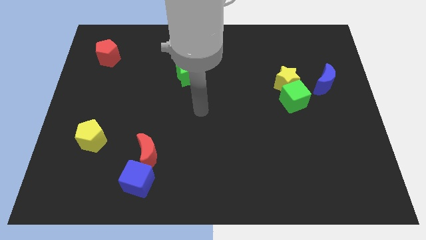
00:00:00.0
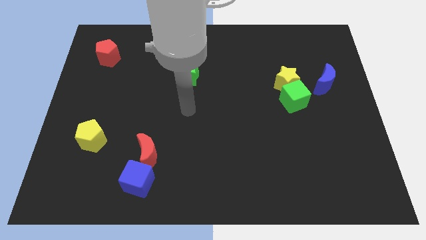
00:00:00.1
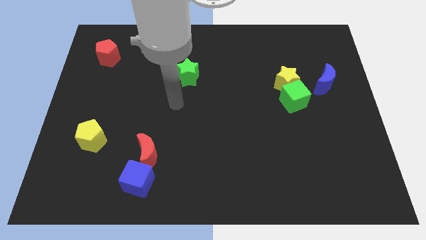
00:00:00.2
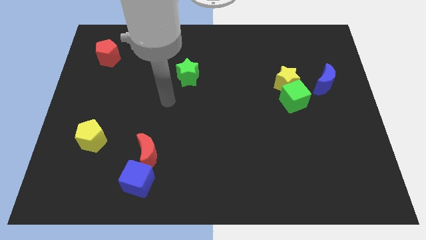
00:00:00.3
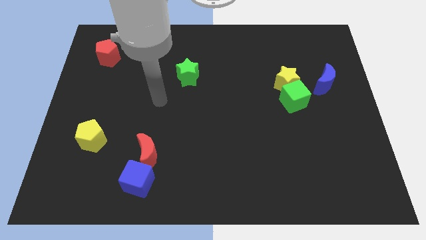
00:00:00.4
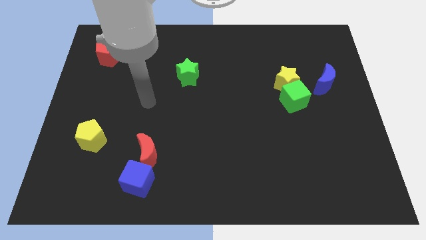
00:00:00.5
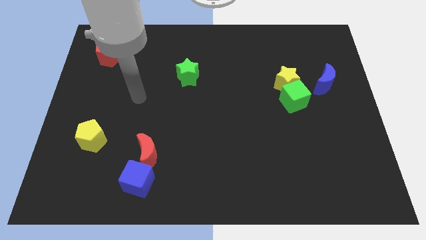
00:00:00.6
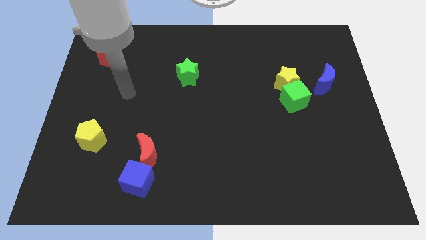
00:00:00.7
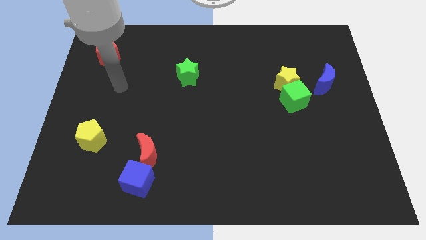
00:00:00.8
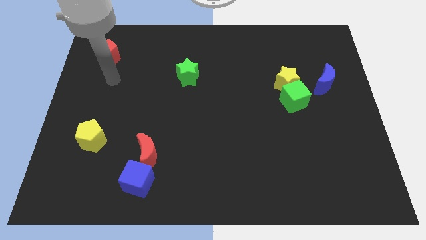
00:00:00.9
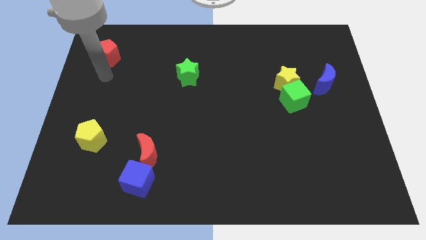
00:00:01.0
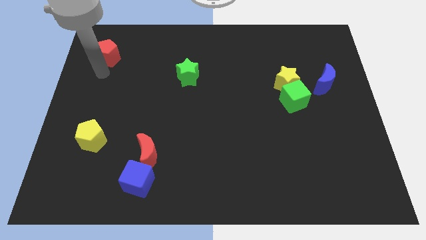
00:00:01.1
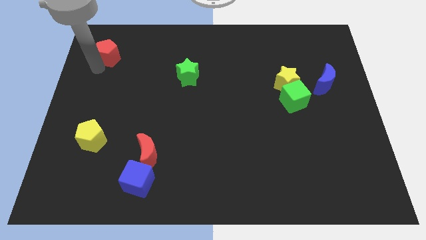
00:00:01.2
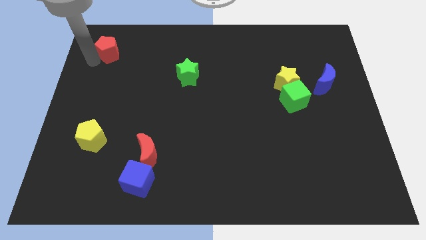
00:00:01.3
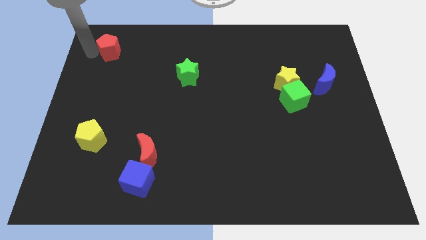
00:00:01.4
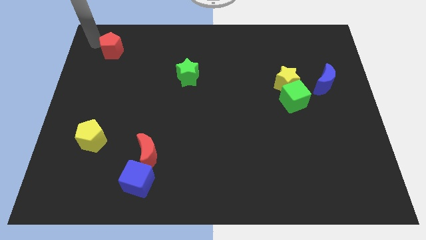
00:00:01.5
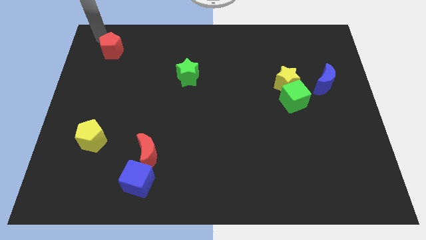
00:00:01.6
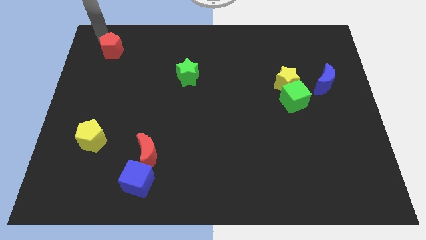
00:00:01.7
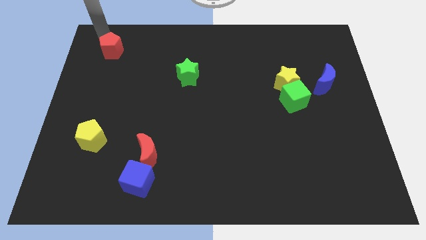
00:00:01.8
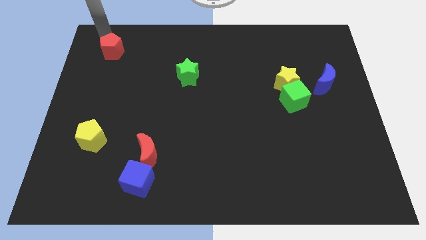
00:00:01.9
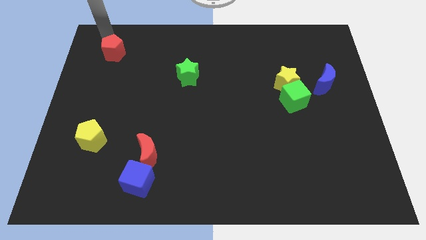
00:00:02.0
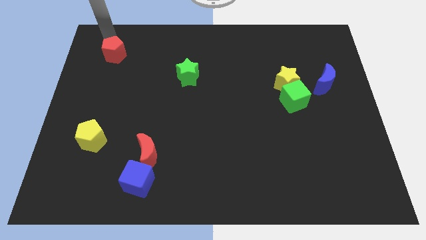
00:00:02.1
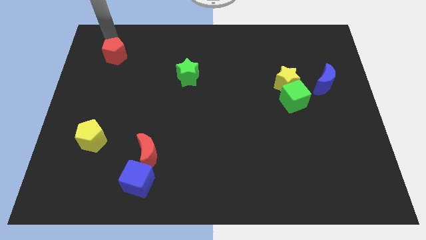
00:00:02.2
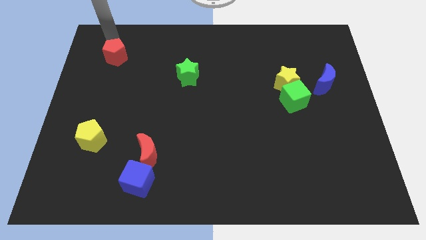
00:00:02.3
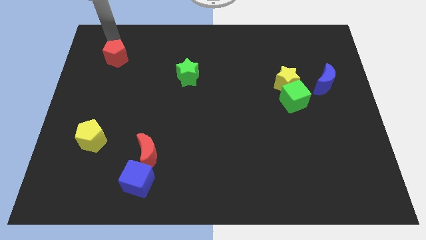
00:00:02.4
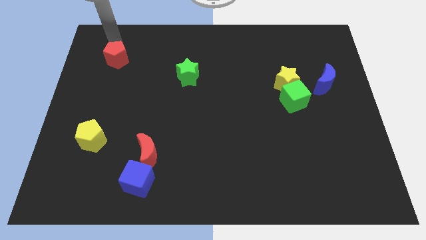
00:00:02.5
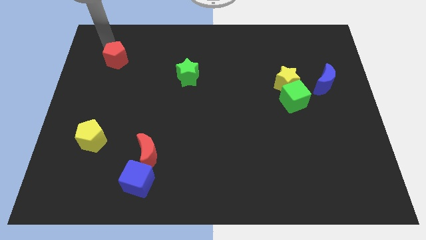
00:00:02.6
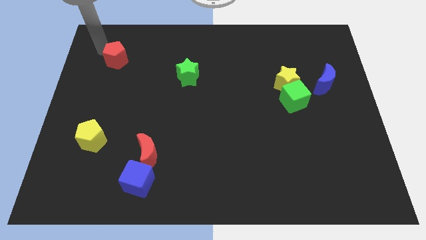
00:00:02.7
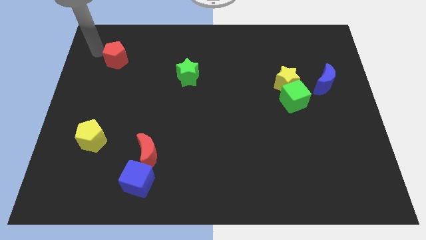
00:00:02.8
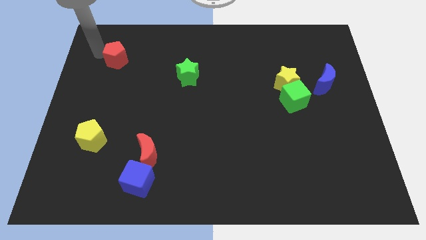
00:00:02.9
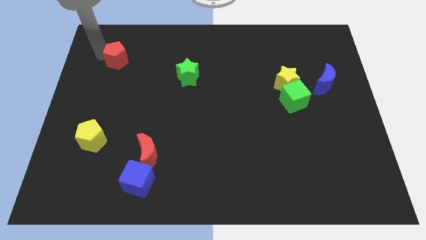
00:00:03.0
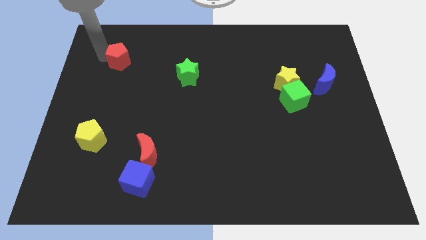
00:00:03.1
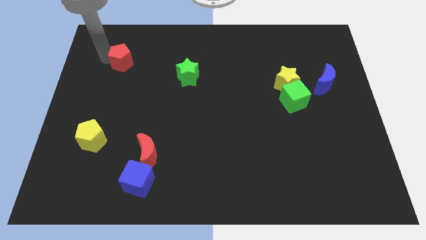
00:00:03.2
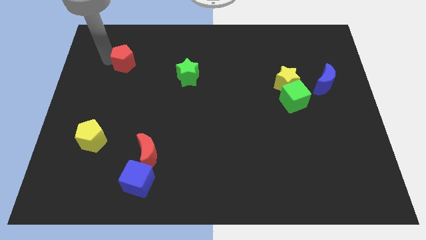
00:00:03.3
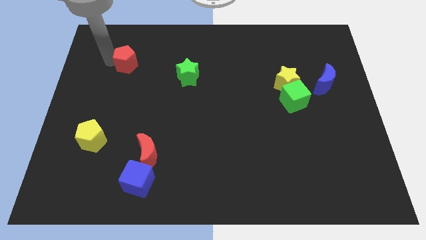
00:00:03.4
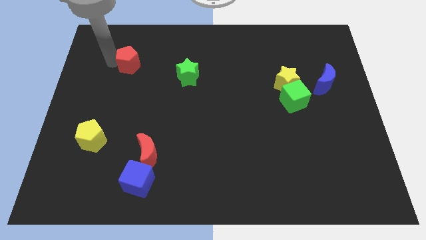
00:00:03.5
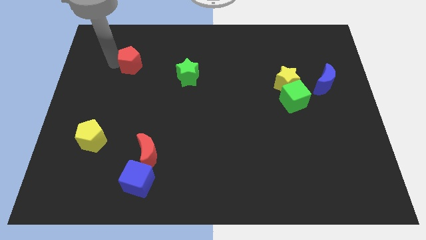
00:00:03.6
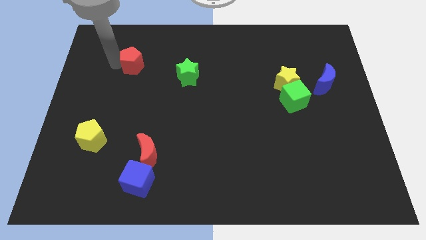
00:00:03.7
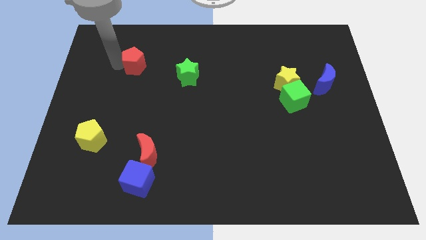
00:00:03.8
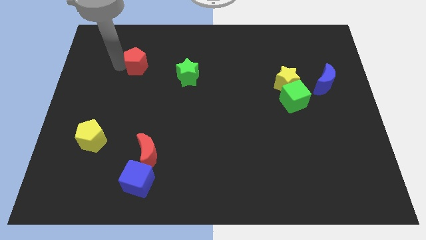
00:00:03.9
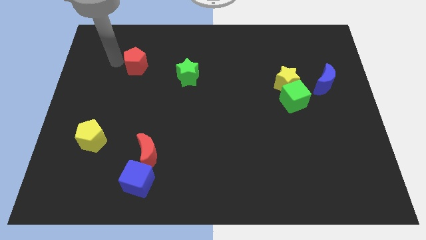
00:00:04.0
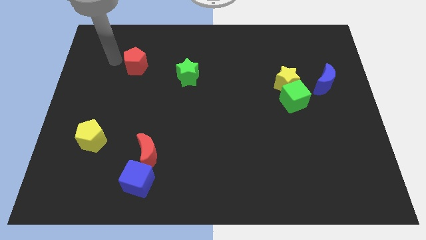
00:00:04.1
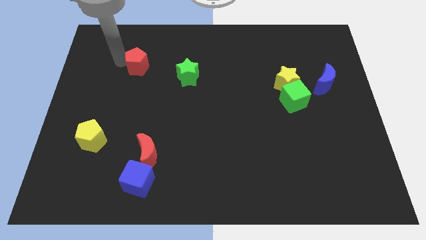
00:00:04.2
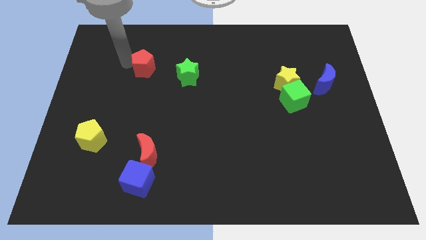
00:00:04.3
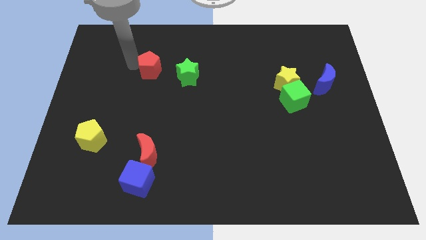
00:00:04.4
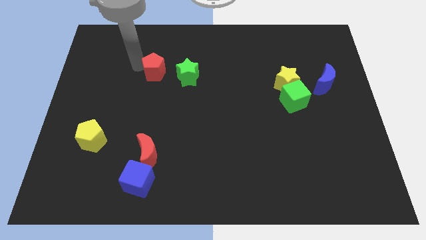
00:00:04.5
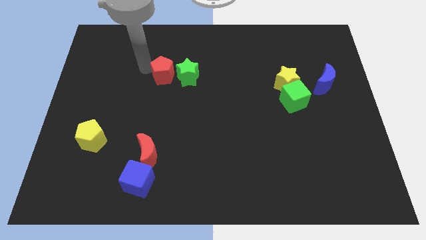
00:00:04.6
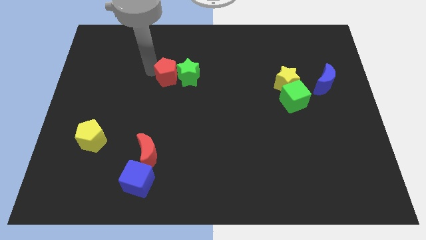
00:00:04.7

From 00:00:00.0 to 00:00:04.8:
put the red pentagon towards the green star

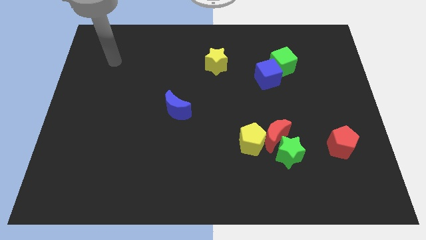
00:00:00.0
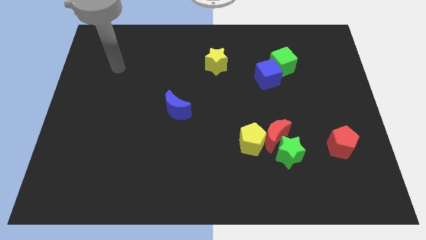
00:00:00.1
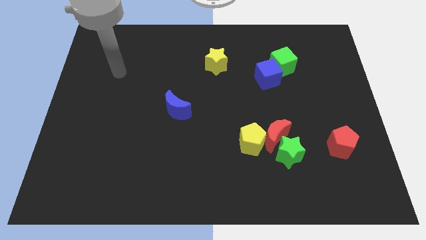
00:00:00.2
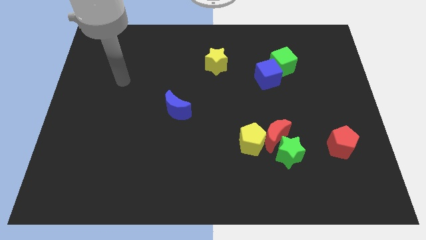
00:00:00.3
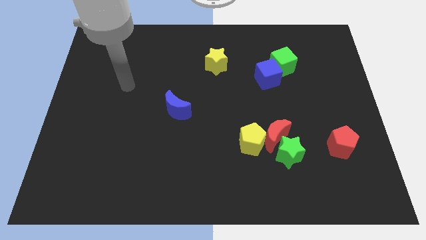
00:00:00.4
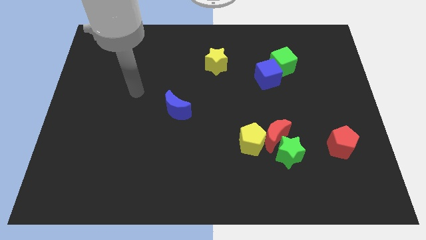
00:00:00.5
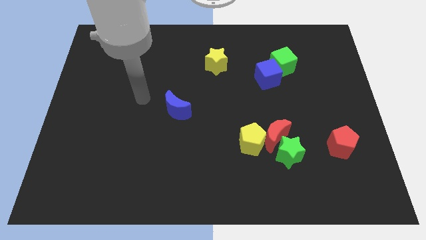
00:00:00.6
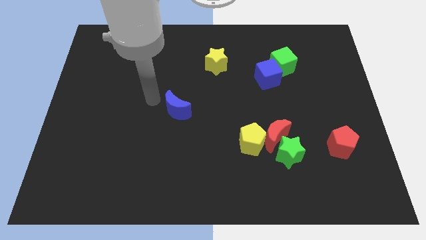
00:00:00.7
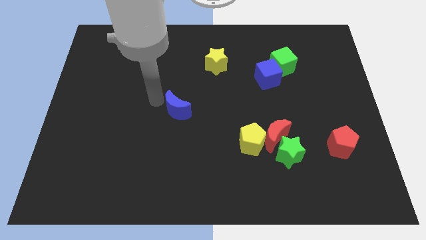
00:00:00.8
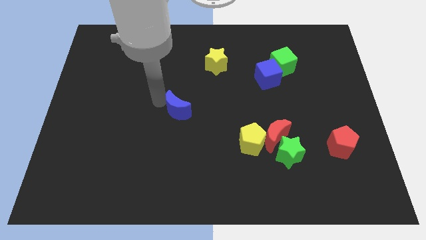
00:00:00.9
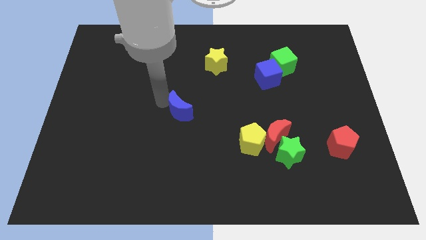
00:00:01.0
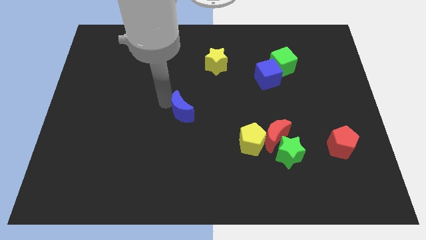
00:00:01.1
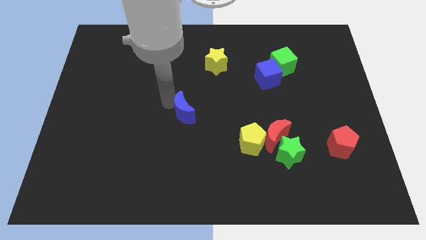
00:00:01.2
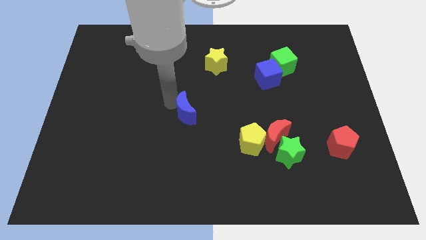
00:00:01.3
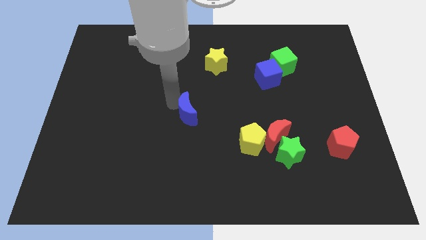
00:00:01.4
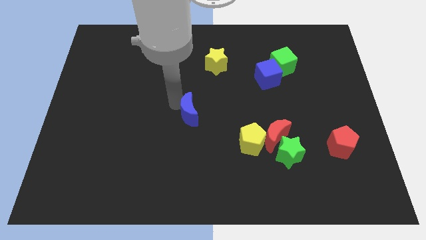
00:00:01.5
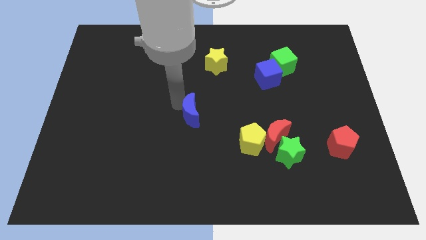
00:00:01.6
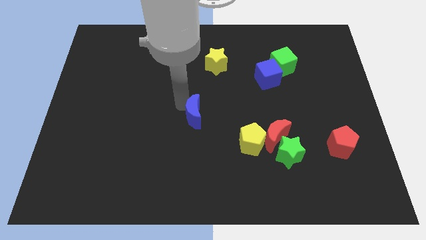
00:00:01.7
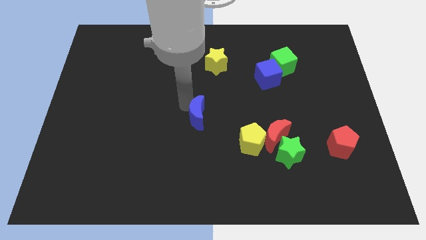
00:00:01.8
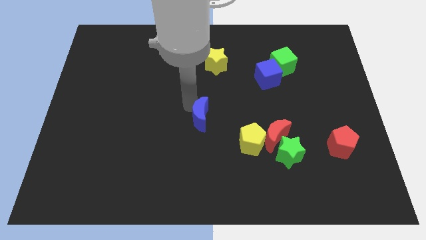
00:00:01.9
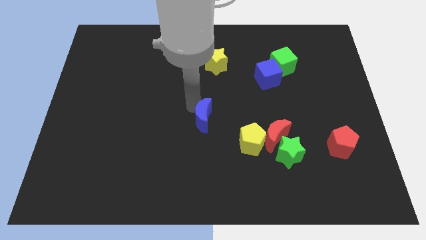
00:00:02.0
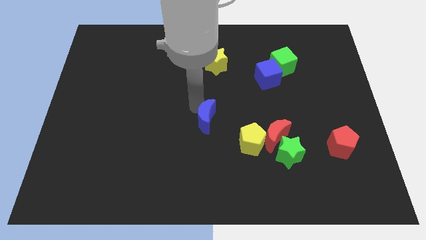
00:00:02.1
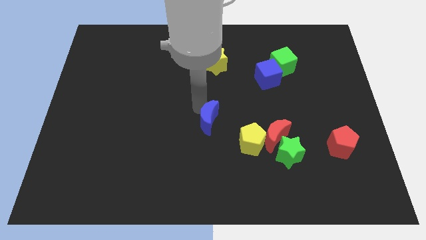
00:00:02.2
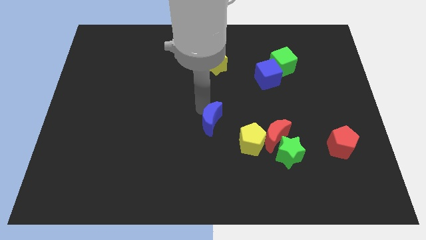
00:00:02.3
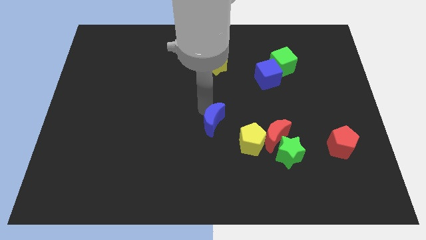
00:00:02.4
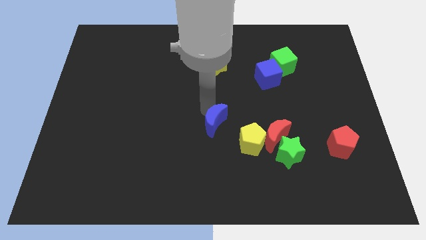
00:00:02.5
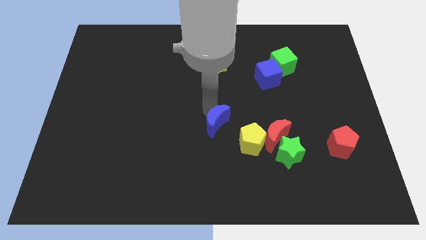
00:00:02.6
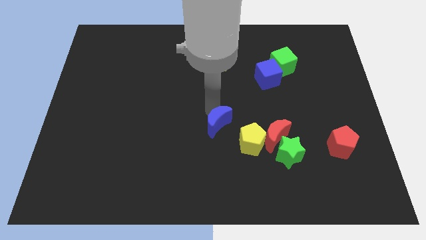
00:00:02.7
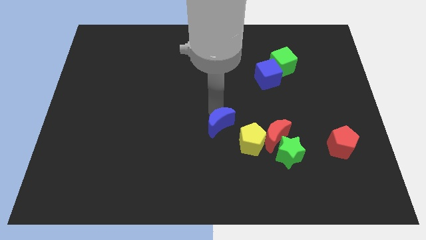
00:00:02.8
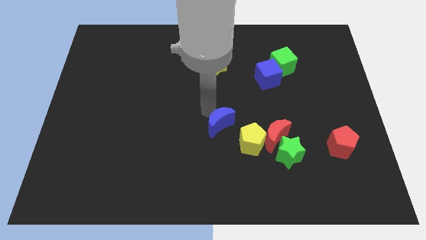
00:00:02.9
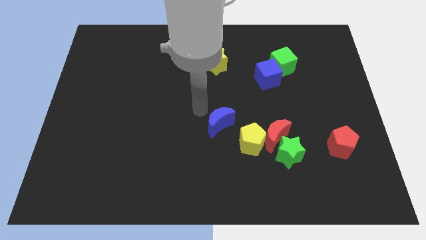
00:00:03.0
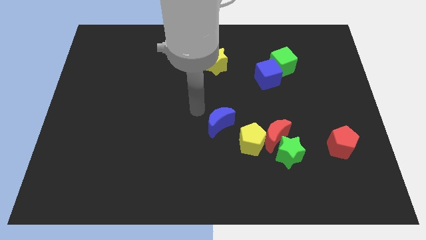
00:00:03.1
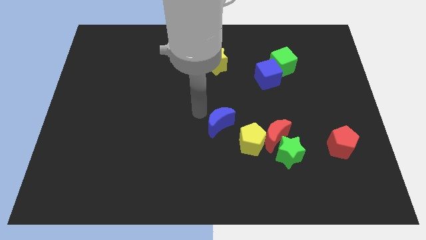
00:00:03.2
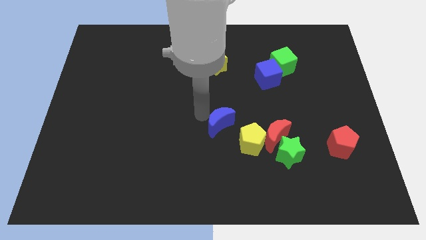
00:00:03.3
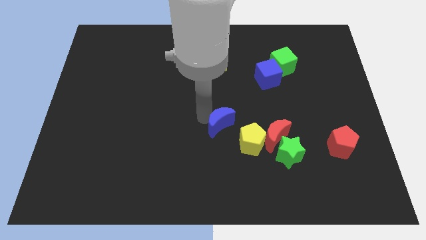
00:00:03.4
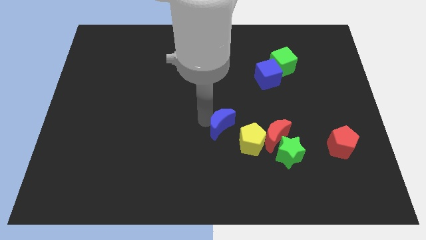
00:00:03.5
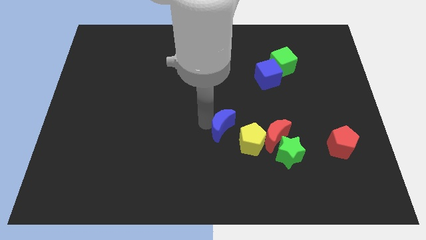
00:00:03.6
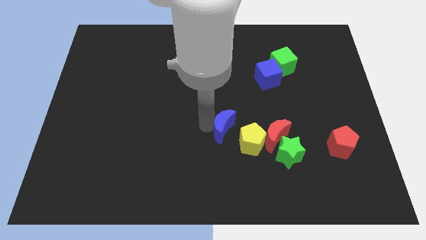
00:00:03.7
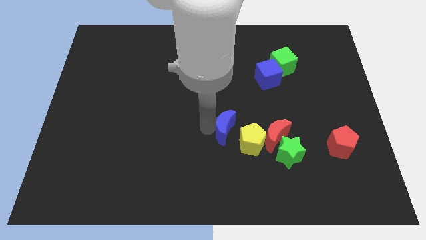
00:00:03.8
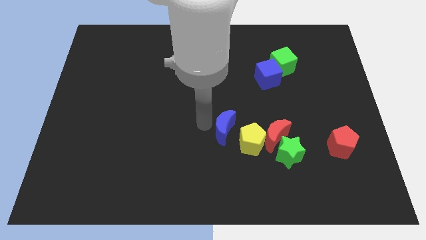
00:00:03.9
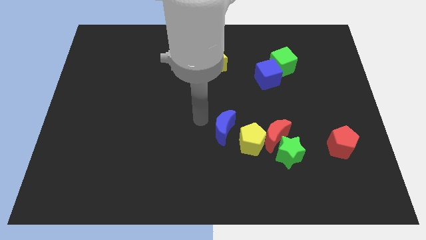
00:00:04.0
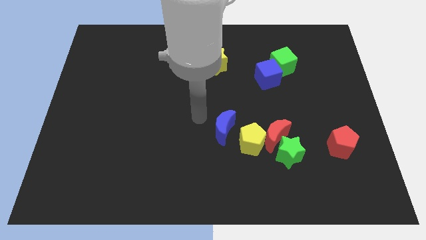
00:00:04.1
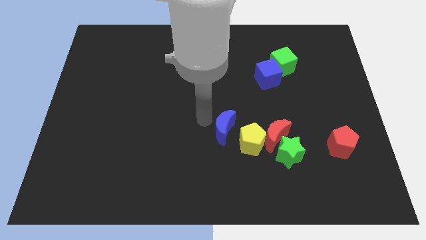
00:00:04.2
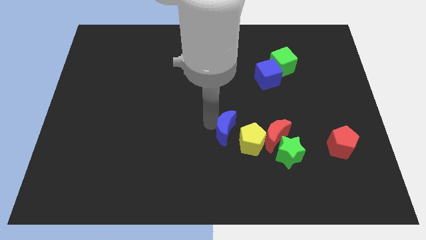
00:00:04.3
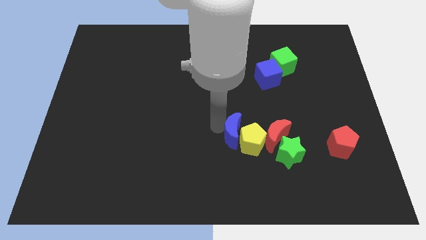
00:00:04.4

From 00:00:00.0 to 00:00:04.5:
slide the blue moon towards the yellow pentagon
